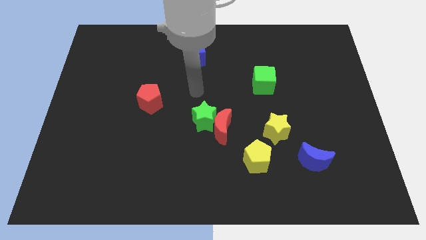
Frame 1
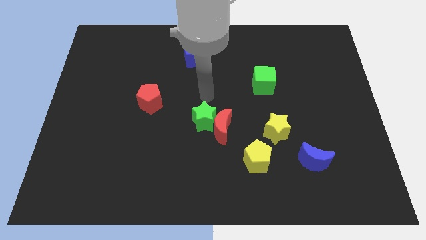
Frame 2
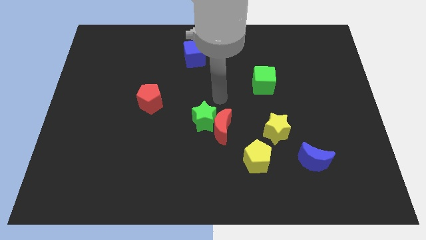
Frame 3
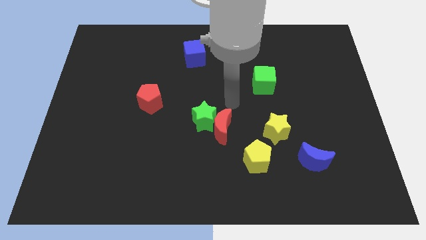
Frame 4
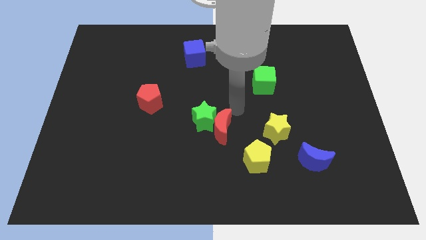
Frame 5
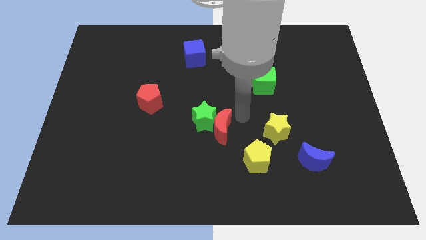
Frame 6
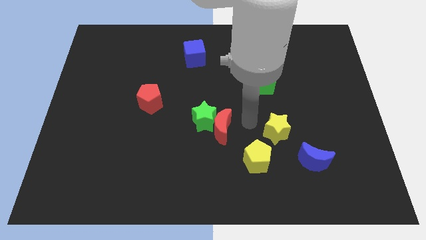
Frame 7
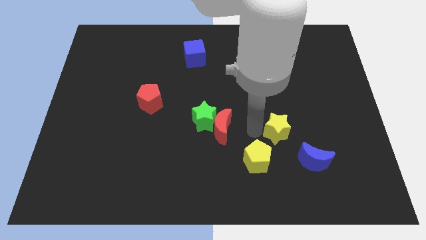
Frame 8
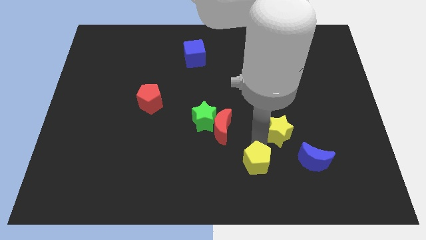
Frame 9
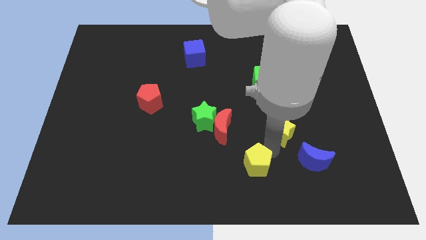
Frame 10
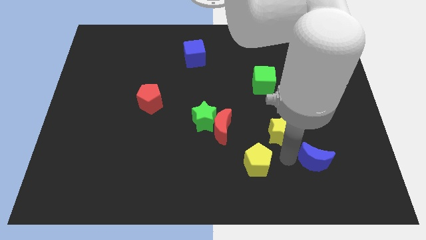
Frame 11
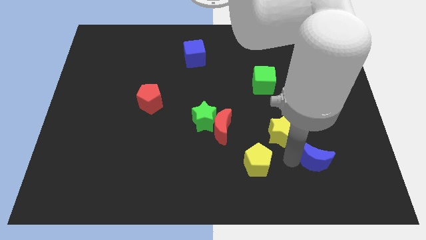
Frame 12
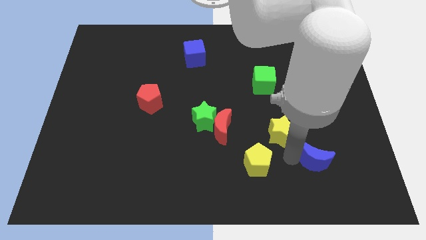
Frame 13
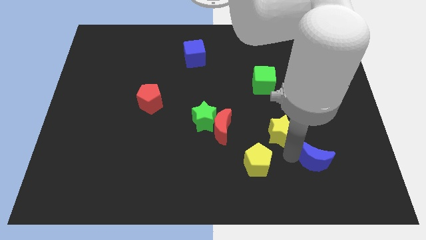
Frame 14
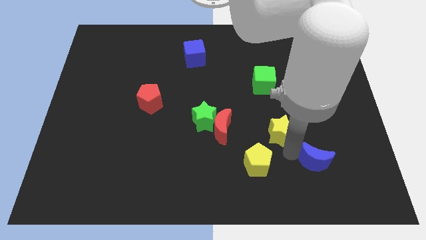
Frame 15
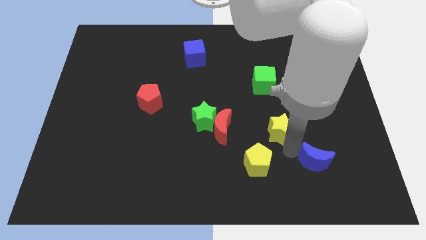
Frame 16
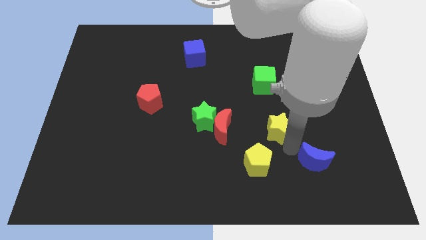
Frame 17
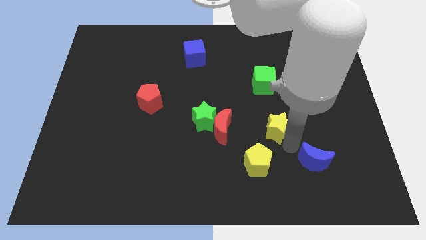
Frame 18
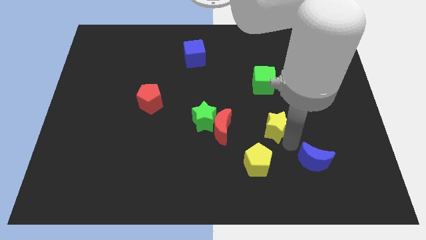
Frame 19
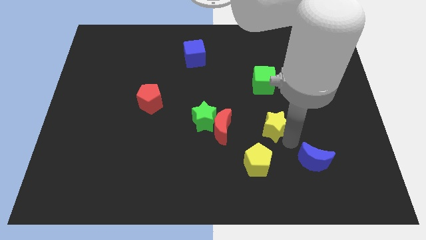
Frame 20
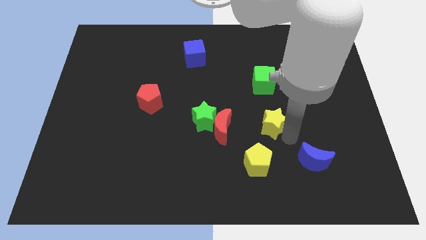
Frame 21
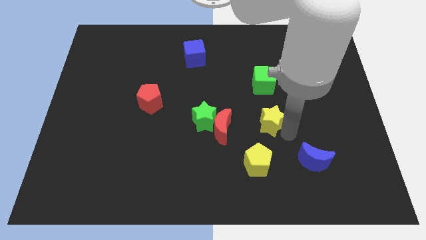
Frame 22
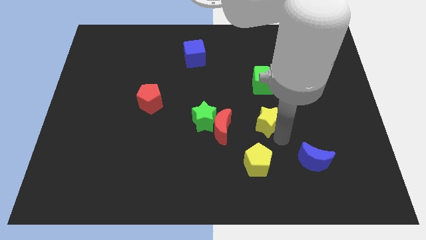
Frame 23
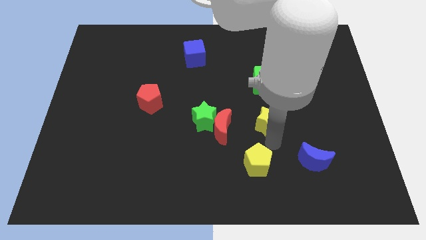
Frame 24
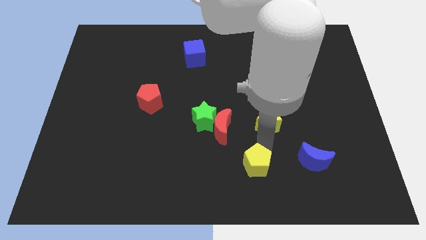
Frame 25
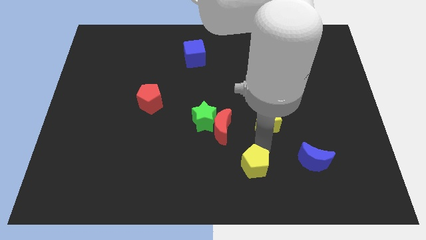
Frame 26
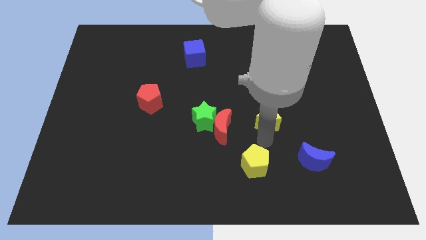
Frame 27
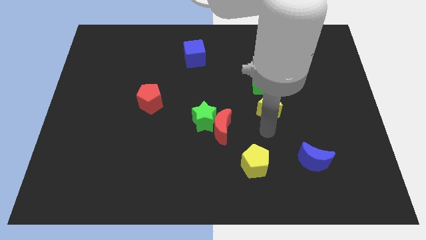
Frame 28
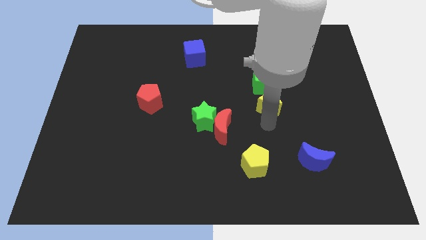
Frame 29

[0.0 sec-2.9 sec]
push the yellow star upwards a bit

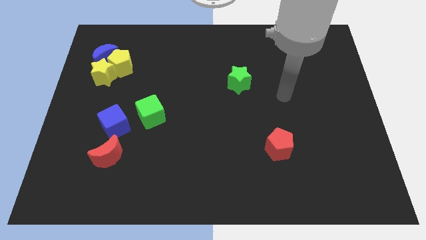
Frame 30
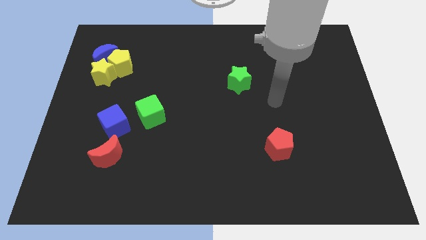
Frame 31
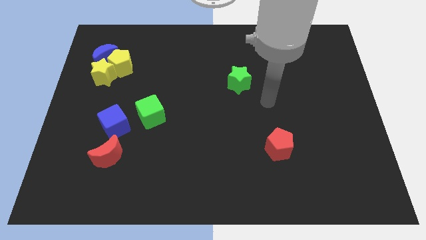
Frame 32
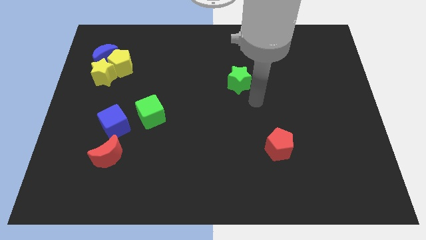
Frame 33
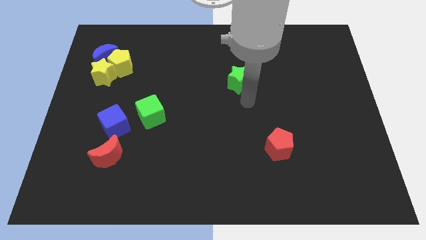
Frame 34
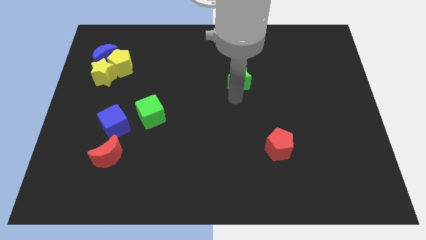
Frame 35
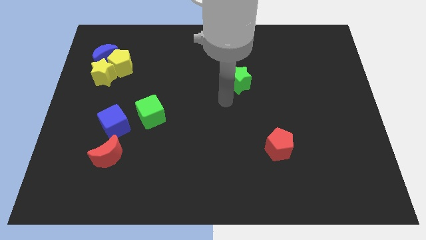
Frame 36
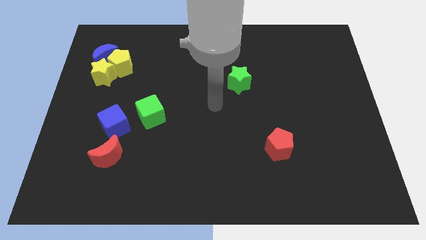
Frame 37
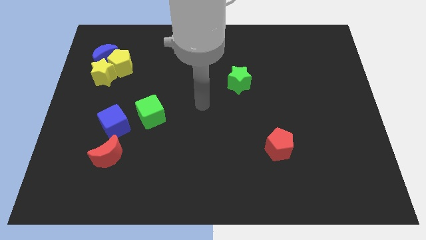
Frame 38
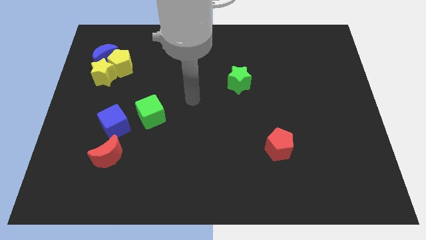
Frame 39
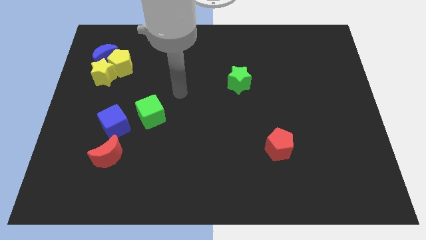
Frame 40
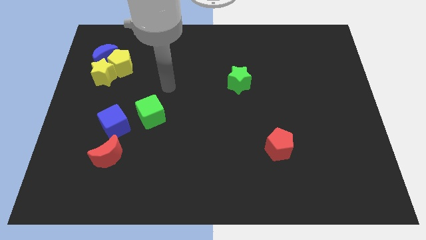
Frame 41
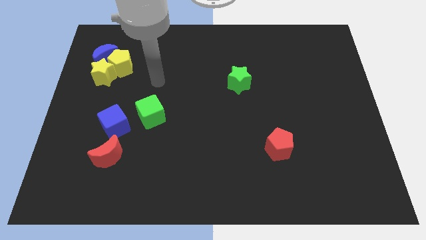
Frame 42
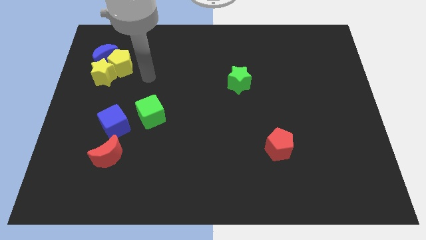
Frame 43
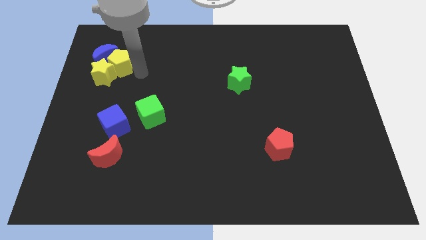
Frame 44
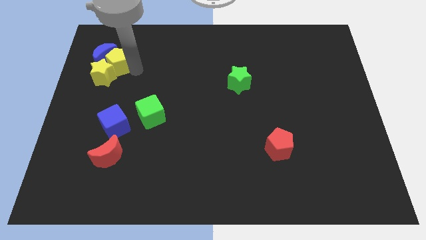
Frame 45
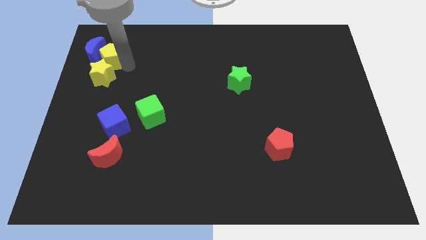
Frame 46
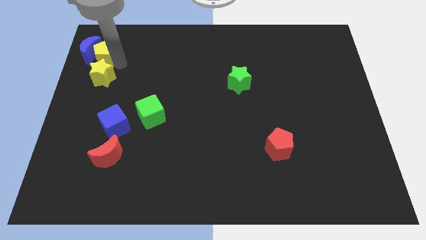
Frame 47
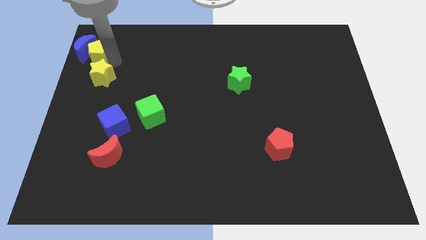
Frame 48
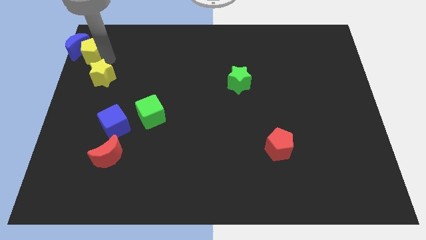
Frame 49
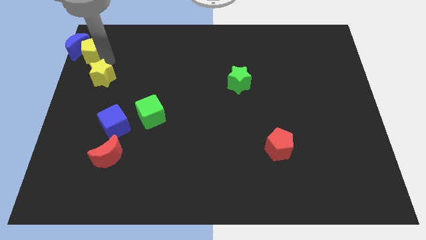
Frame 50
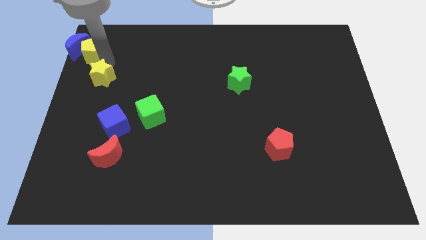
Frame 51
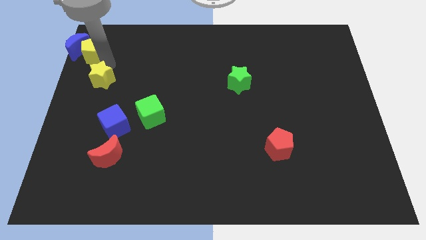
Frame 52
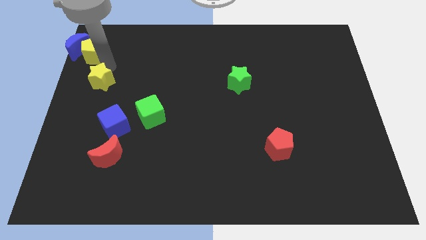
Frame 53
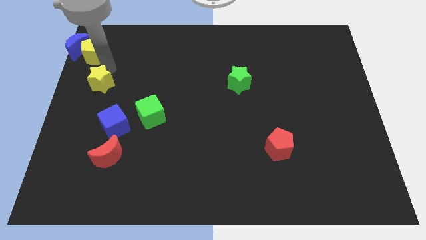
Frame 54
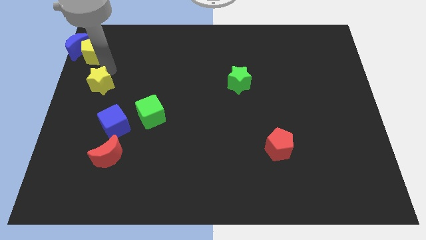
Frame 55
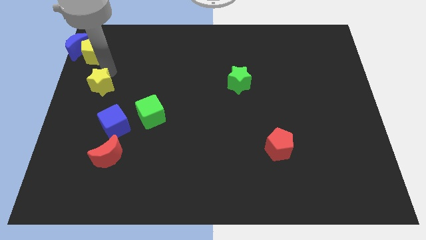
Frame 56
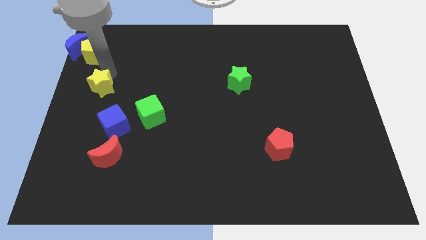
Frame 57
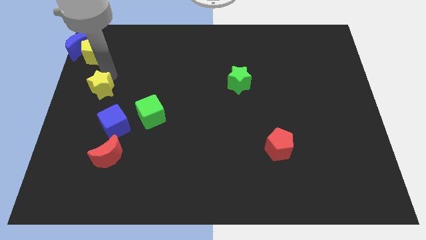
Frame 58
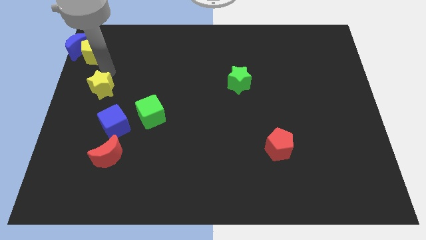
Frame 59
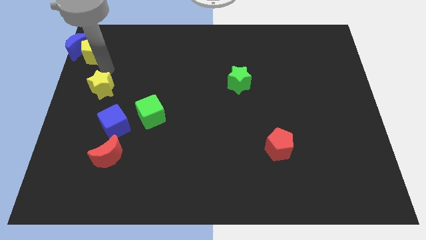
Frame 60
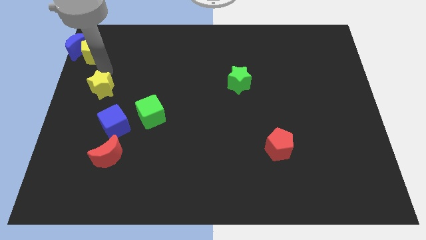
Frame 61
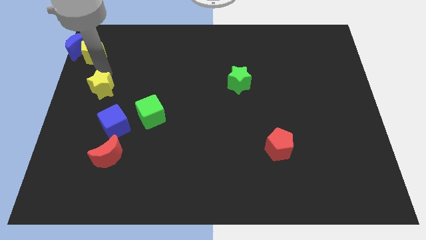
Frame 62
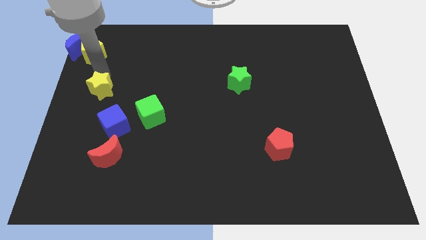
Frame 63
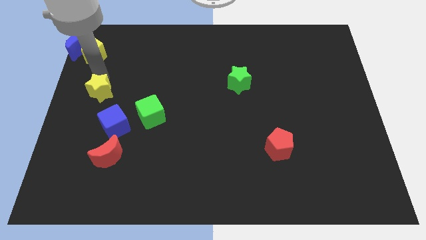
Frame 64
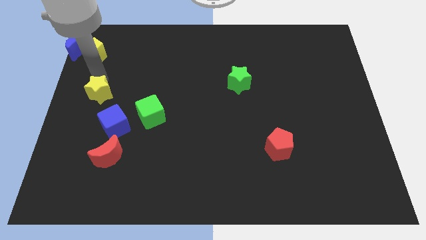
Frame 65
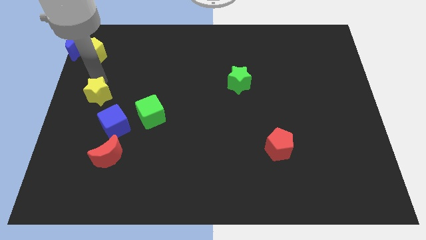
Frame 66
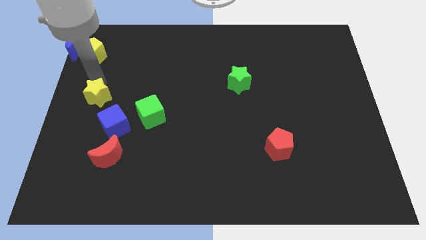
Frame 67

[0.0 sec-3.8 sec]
move the yellow star a little bit down

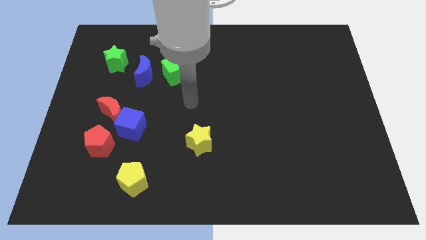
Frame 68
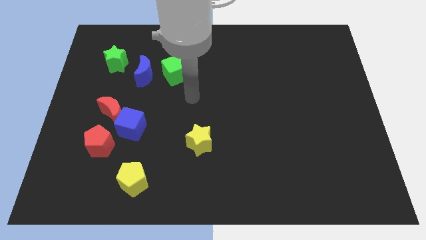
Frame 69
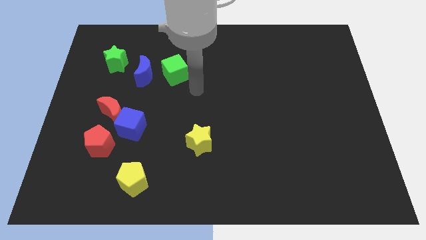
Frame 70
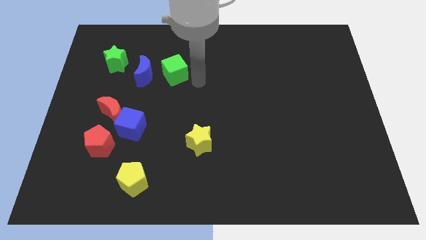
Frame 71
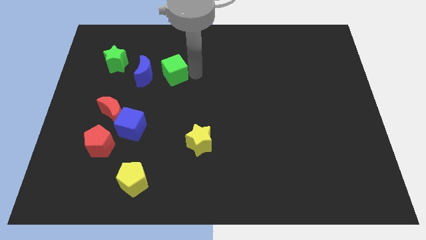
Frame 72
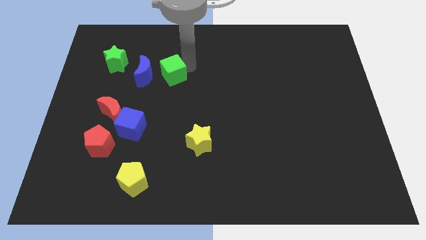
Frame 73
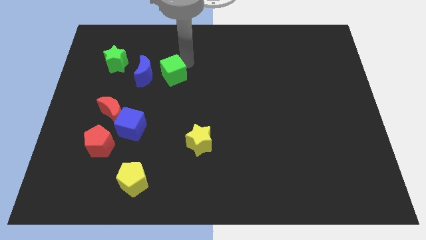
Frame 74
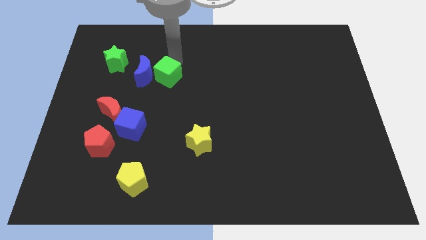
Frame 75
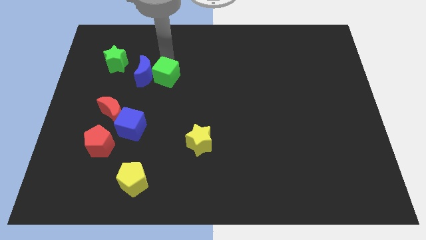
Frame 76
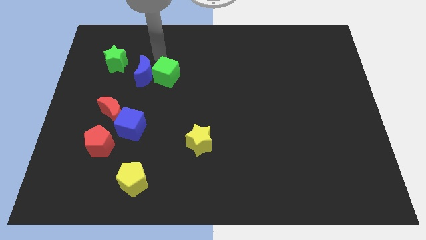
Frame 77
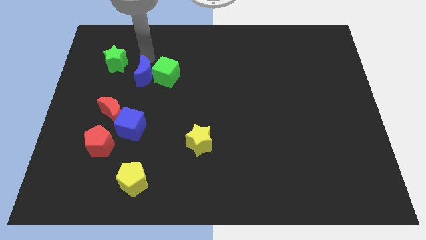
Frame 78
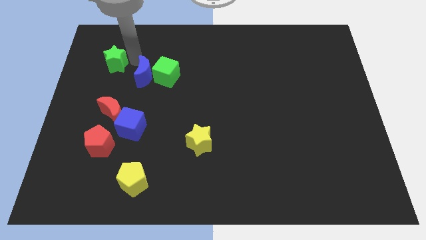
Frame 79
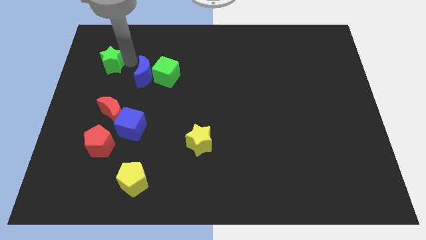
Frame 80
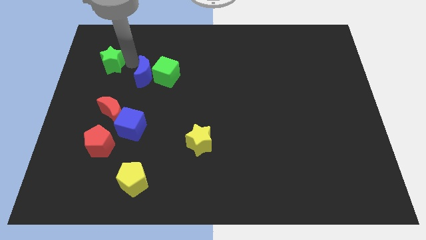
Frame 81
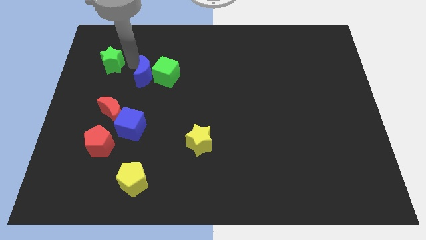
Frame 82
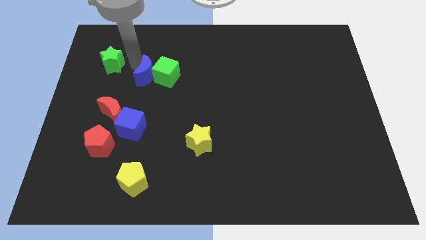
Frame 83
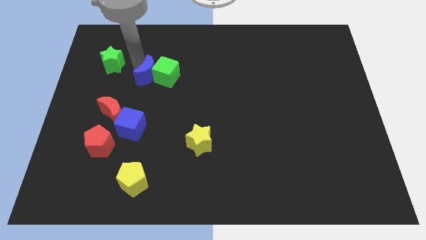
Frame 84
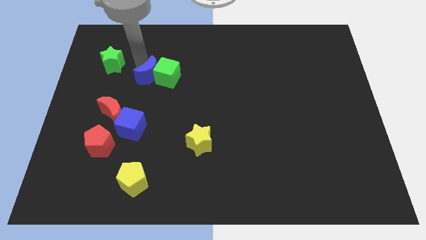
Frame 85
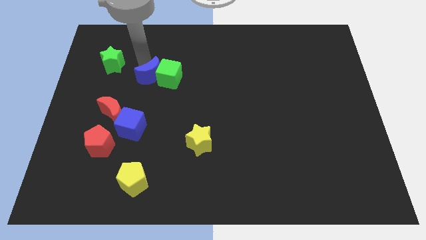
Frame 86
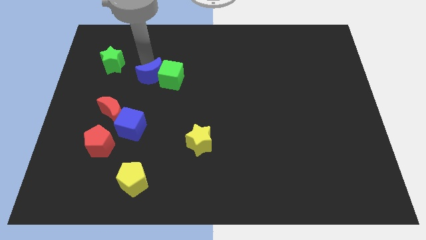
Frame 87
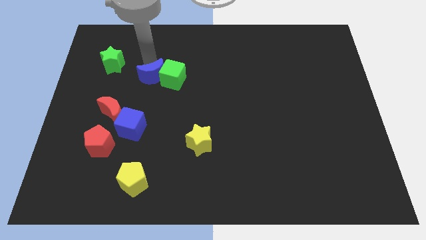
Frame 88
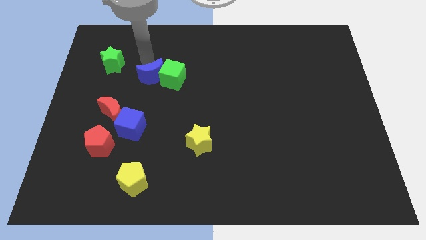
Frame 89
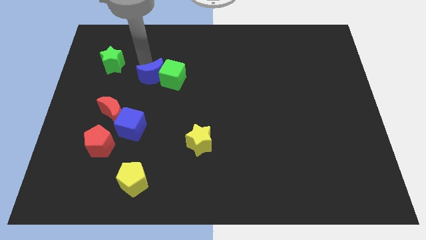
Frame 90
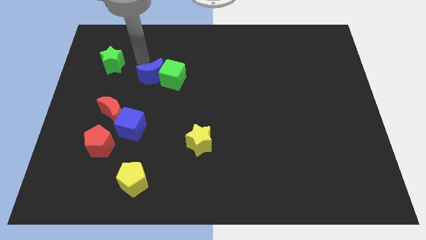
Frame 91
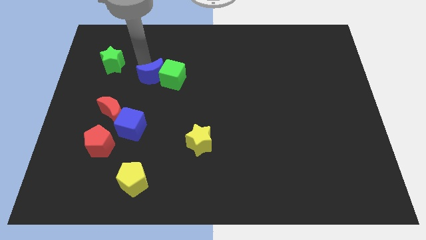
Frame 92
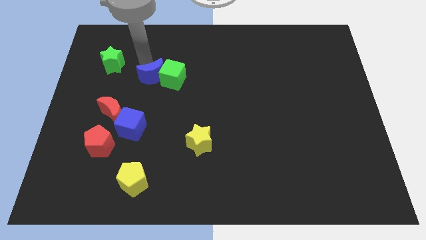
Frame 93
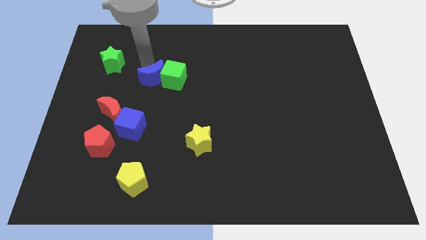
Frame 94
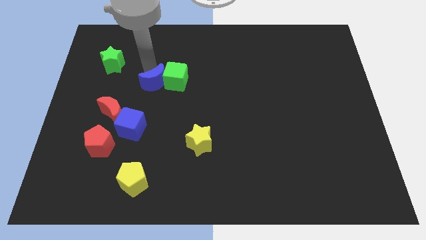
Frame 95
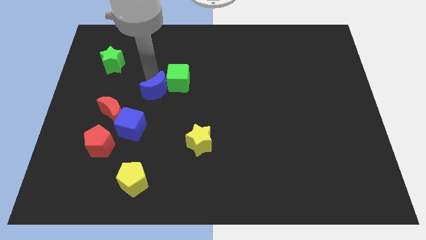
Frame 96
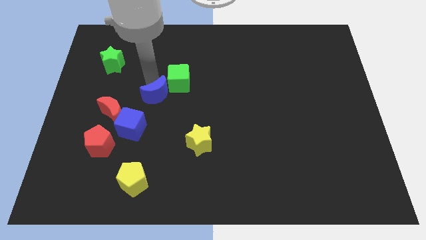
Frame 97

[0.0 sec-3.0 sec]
slightly move the blue moon diagonally downwards and right
